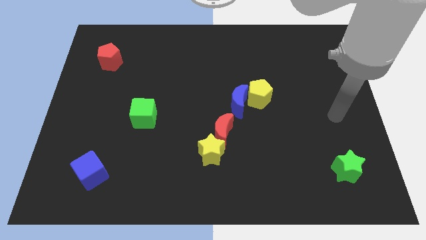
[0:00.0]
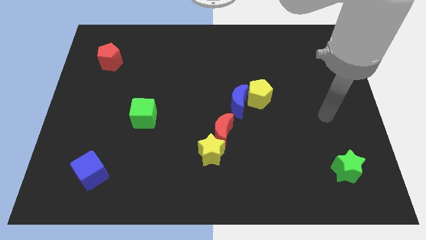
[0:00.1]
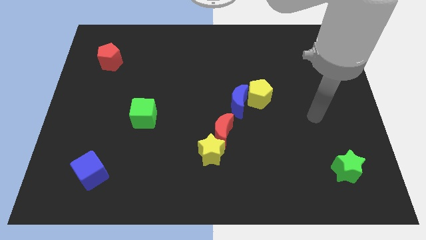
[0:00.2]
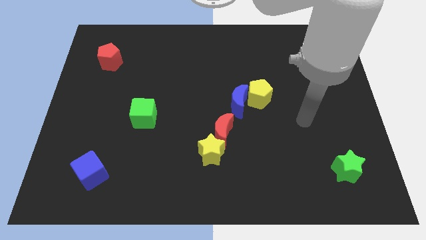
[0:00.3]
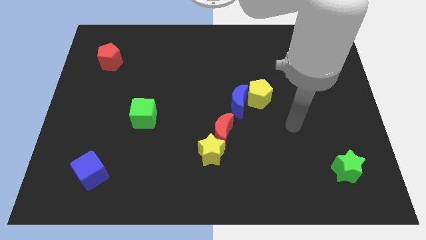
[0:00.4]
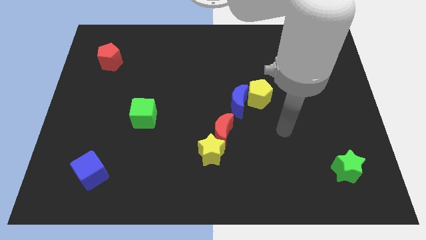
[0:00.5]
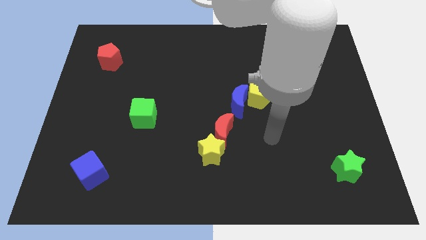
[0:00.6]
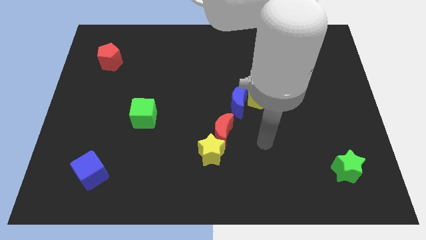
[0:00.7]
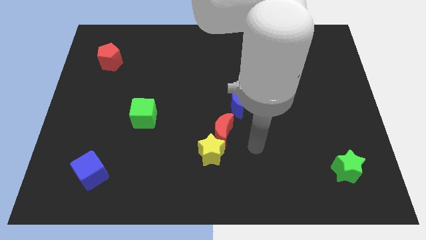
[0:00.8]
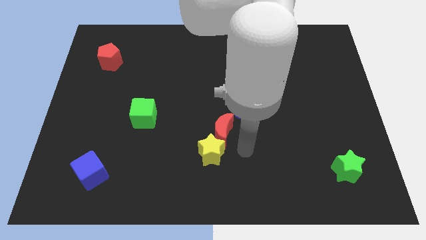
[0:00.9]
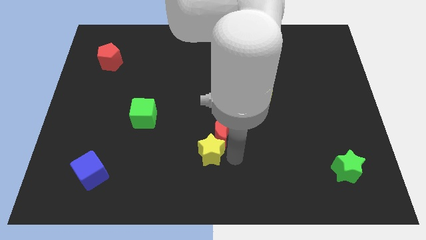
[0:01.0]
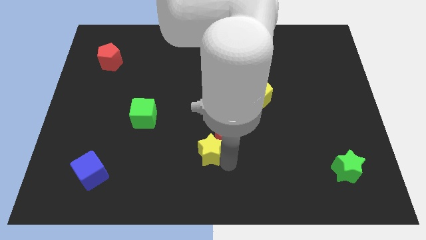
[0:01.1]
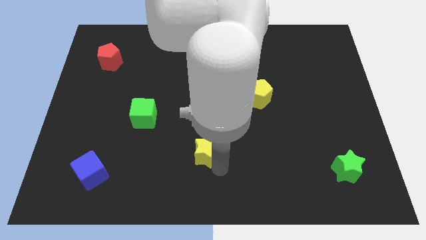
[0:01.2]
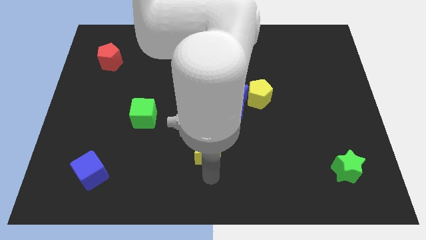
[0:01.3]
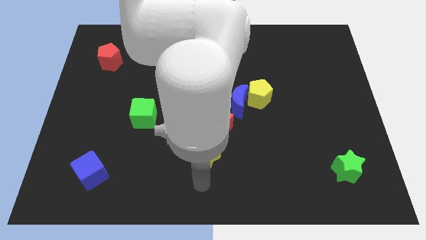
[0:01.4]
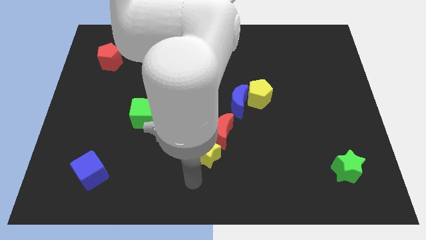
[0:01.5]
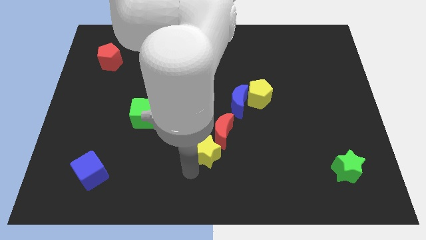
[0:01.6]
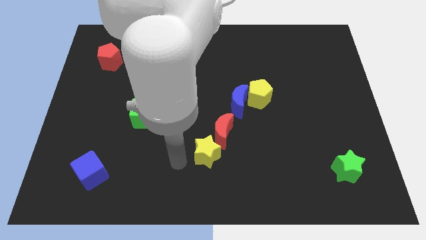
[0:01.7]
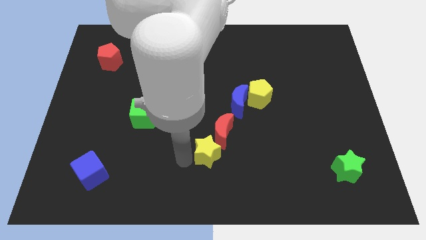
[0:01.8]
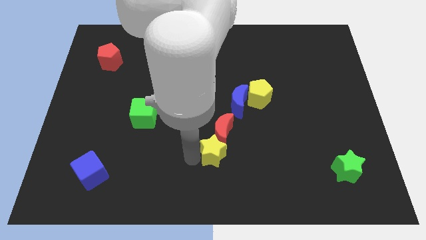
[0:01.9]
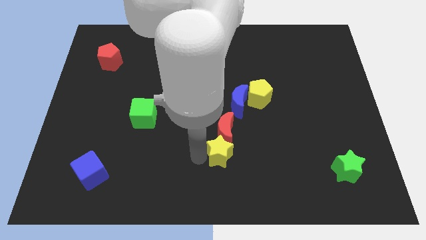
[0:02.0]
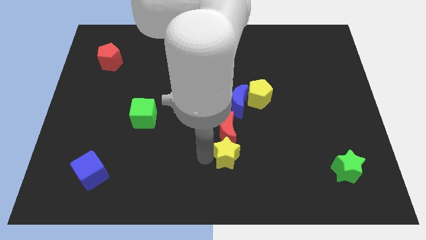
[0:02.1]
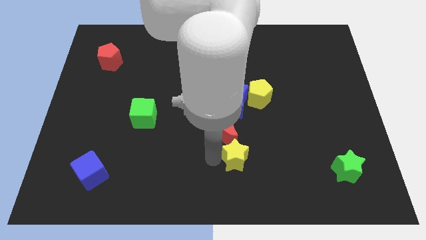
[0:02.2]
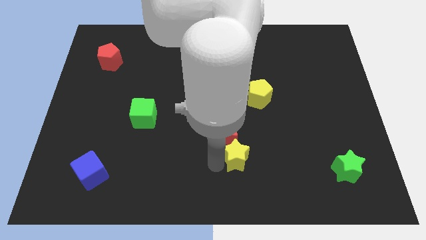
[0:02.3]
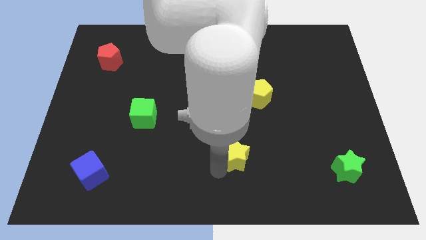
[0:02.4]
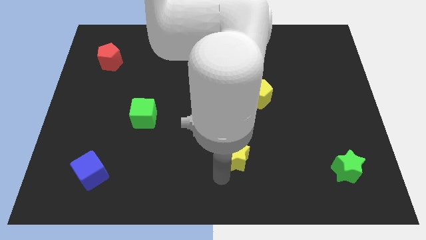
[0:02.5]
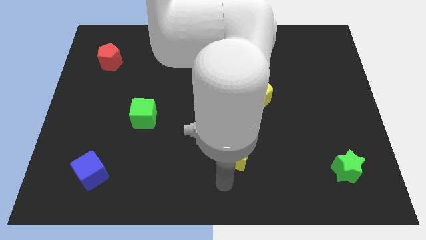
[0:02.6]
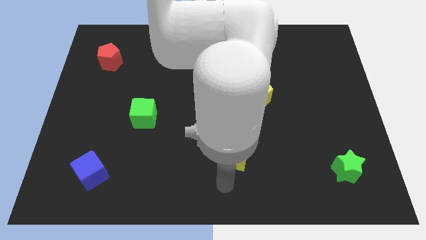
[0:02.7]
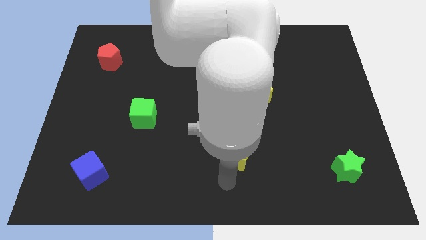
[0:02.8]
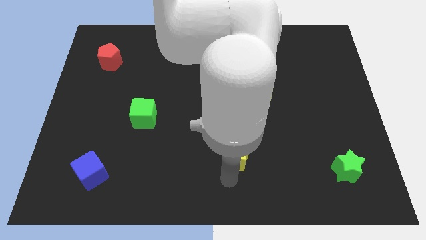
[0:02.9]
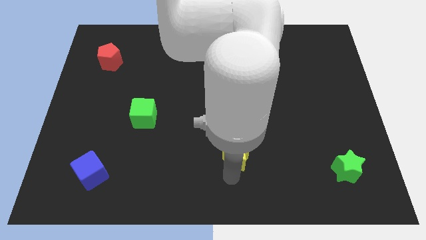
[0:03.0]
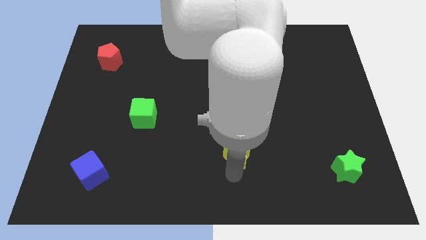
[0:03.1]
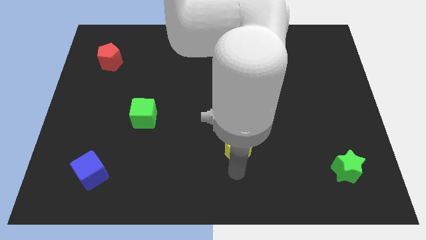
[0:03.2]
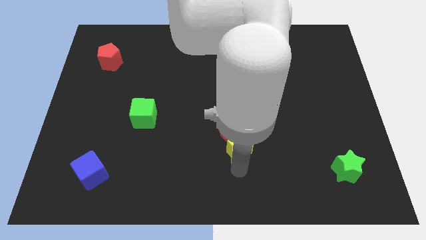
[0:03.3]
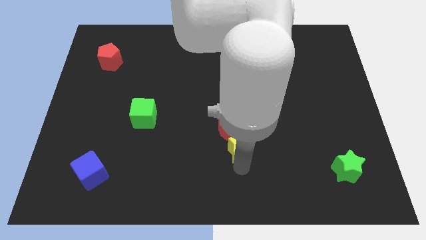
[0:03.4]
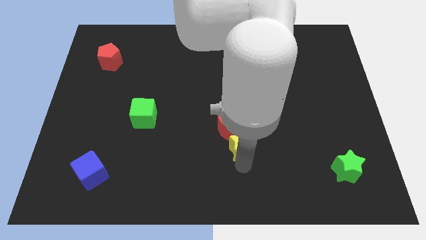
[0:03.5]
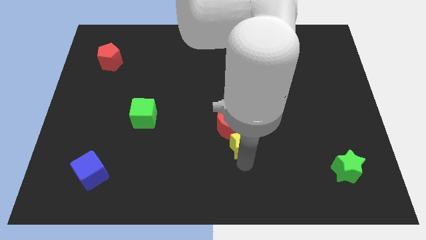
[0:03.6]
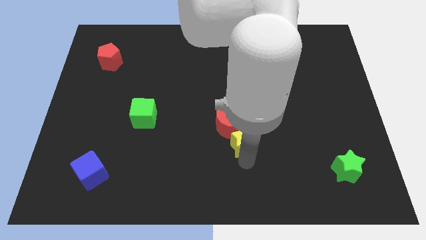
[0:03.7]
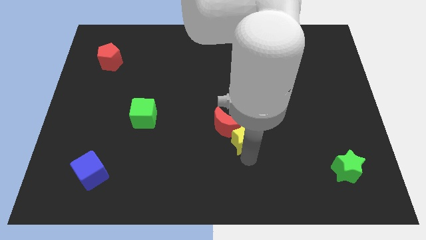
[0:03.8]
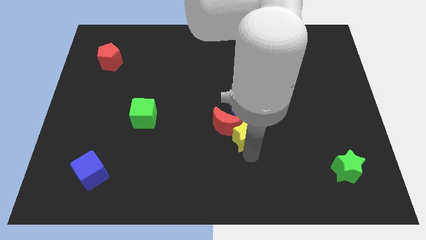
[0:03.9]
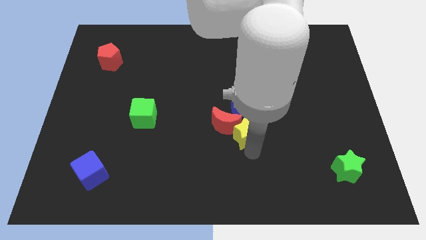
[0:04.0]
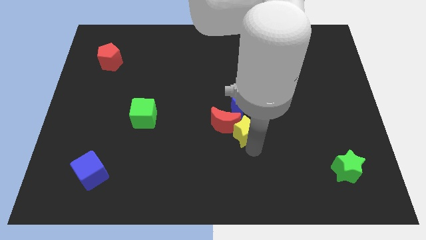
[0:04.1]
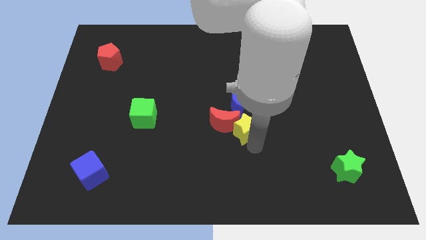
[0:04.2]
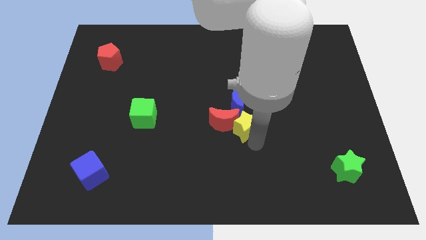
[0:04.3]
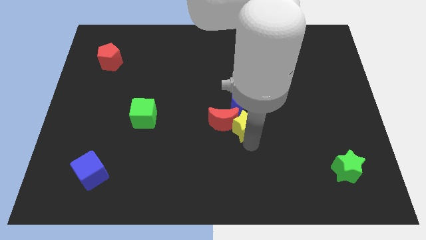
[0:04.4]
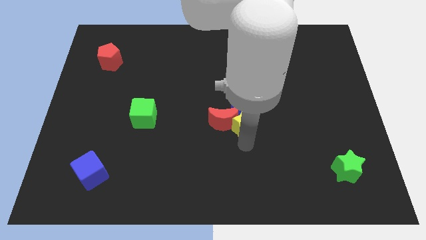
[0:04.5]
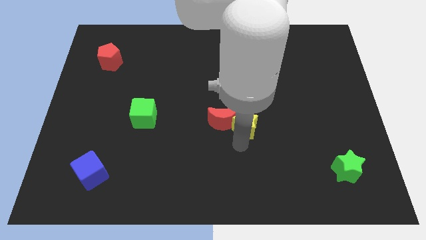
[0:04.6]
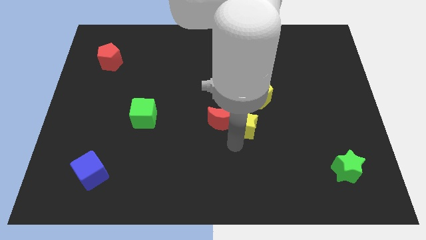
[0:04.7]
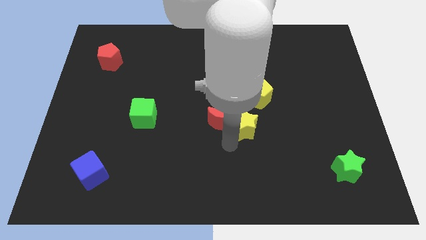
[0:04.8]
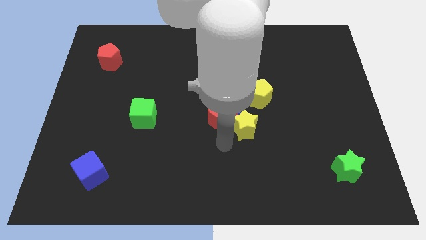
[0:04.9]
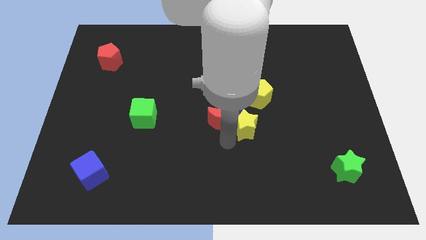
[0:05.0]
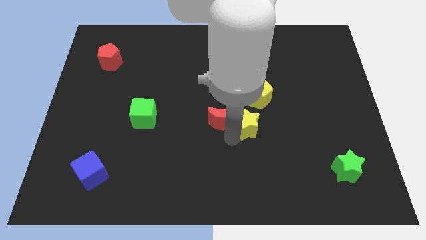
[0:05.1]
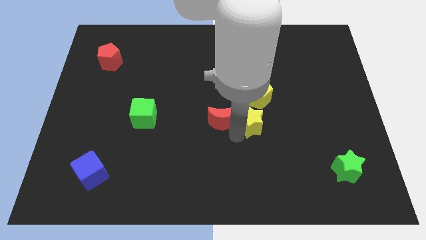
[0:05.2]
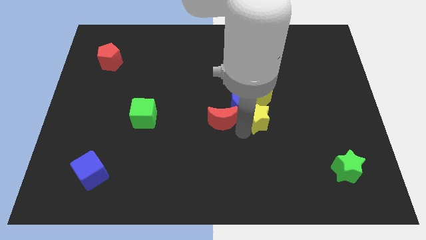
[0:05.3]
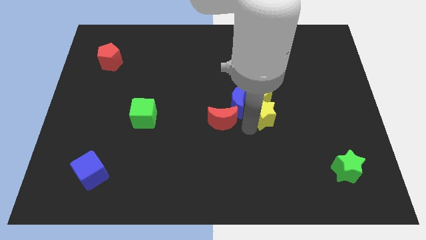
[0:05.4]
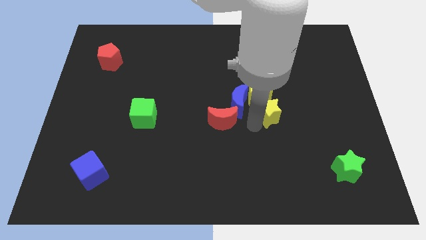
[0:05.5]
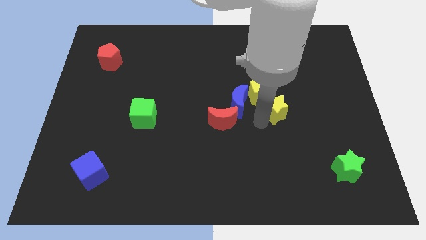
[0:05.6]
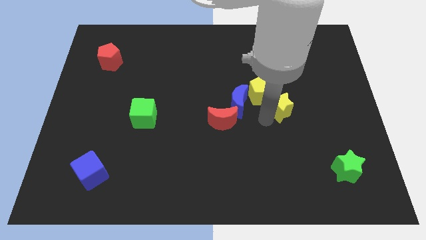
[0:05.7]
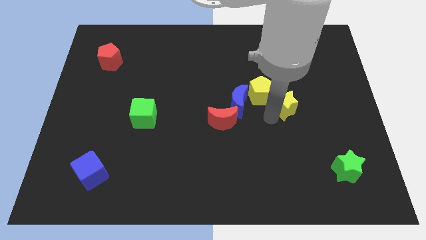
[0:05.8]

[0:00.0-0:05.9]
slide the yellow star upwards and then right

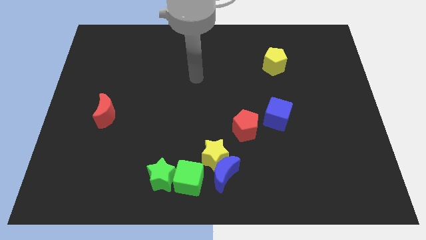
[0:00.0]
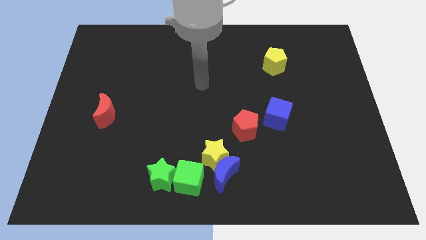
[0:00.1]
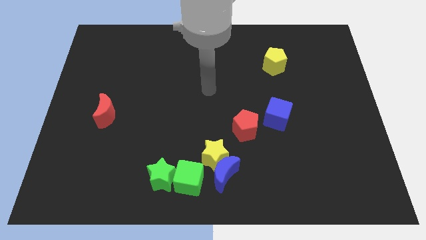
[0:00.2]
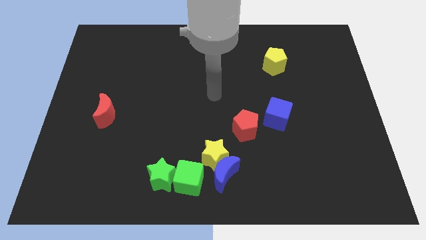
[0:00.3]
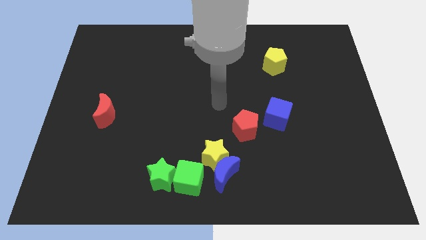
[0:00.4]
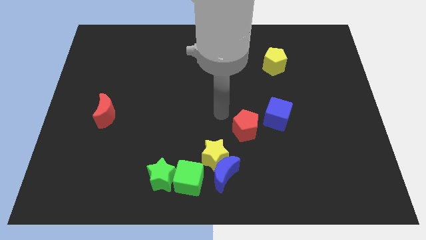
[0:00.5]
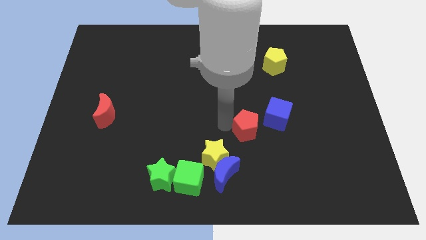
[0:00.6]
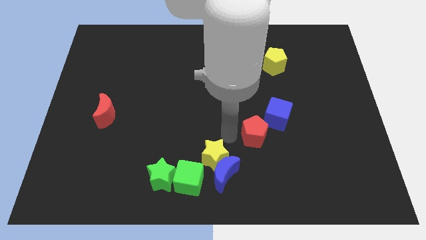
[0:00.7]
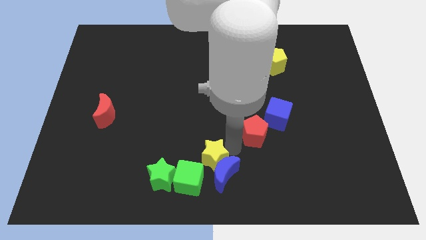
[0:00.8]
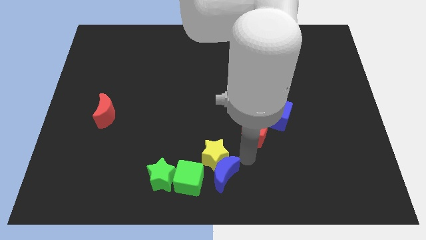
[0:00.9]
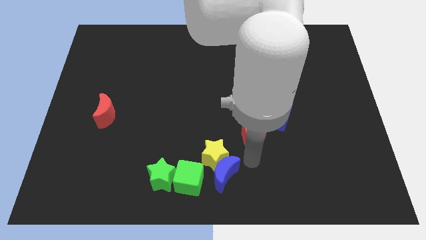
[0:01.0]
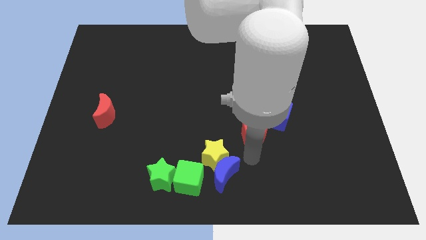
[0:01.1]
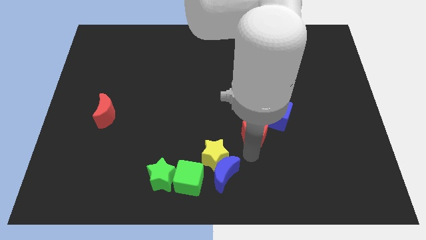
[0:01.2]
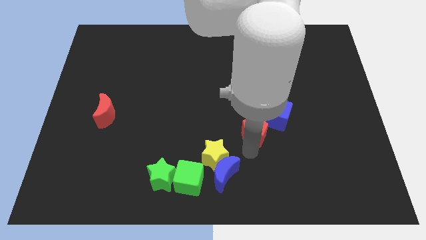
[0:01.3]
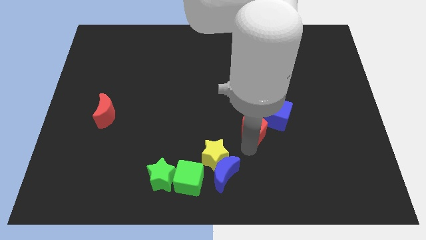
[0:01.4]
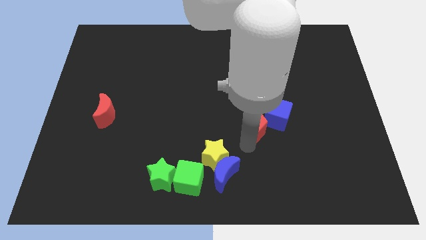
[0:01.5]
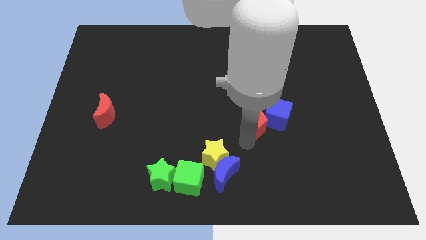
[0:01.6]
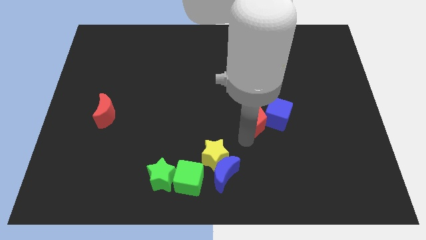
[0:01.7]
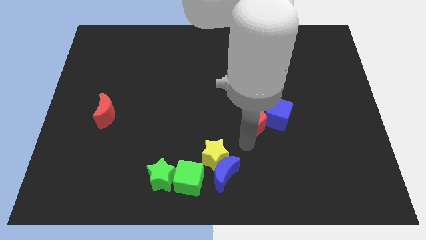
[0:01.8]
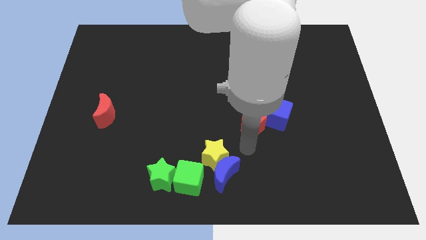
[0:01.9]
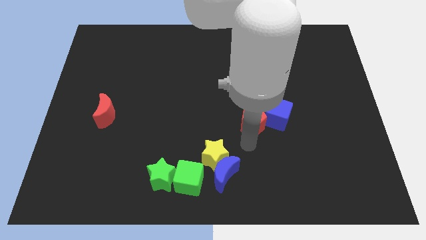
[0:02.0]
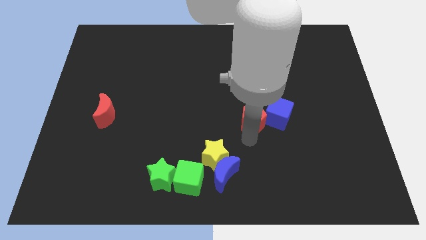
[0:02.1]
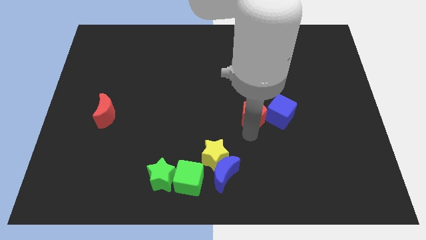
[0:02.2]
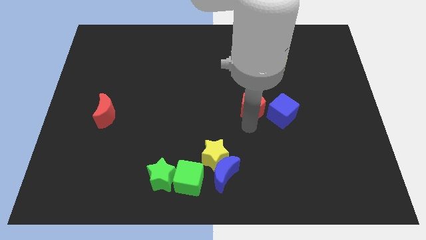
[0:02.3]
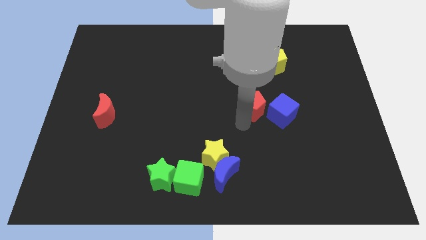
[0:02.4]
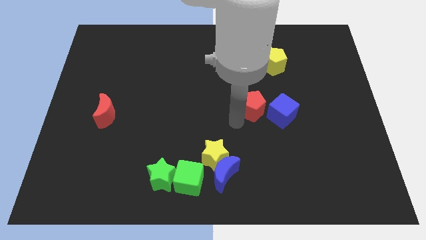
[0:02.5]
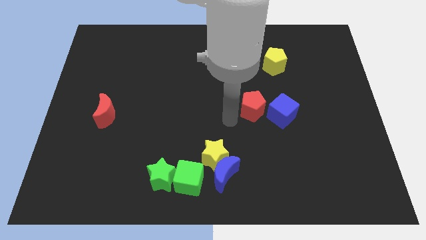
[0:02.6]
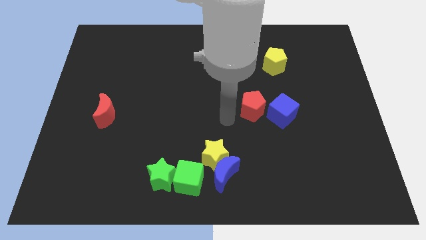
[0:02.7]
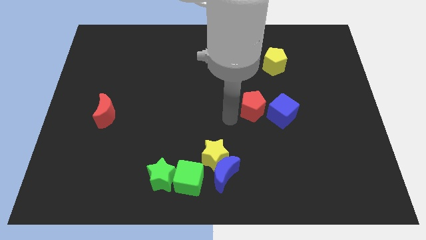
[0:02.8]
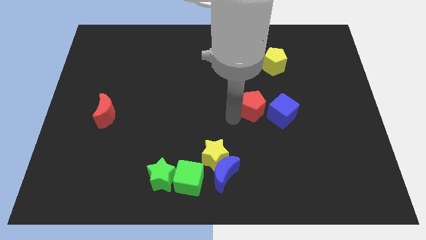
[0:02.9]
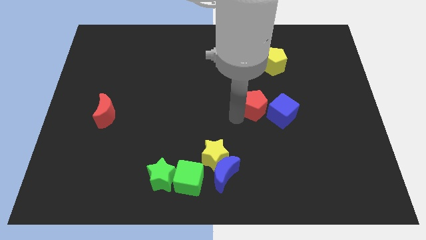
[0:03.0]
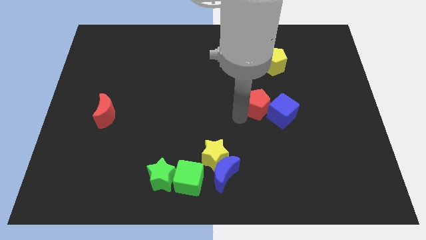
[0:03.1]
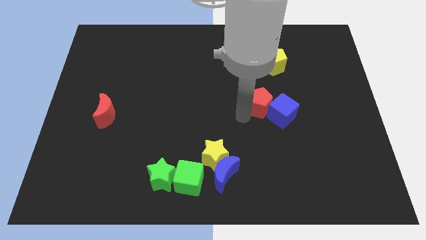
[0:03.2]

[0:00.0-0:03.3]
slightly slide the red pentagon diagonally up and right
